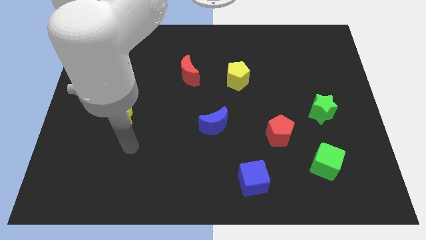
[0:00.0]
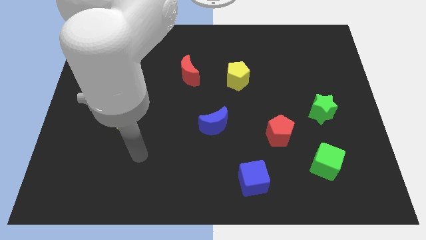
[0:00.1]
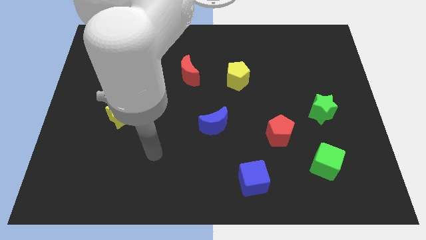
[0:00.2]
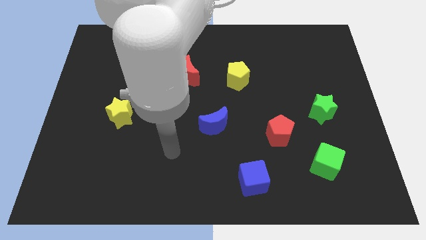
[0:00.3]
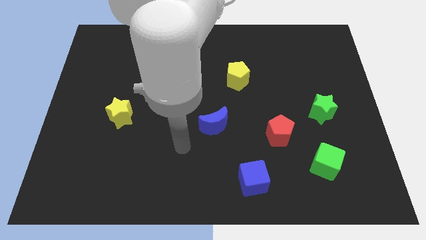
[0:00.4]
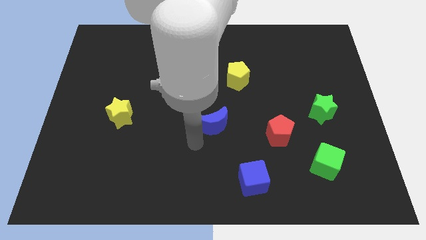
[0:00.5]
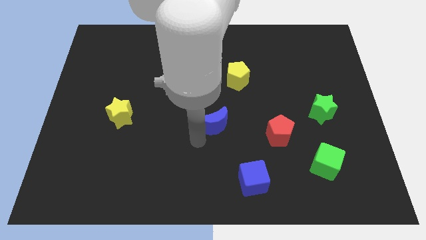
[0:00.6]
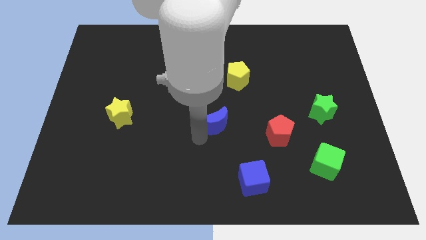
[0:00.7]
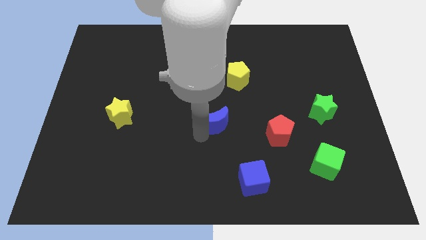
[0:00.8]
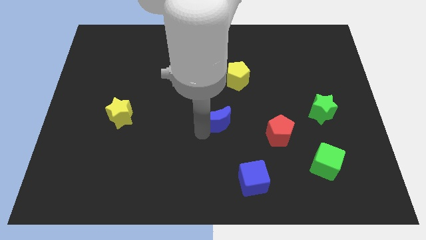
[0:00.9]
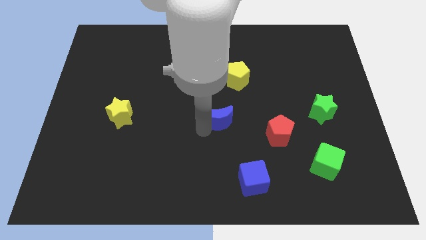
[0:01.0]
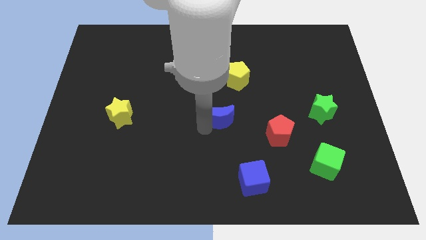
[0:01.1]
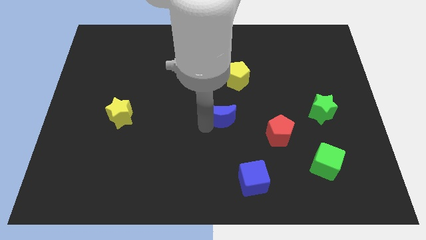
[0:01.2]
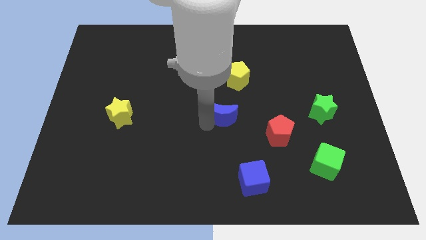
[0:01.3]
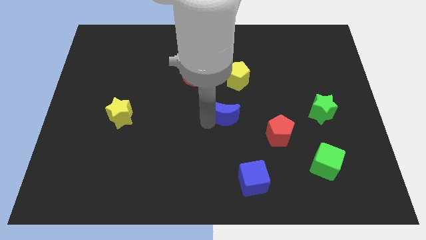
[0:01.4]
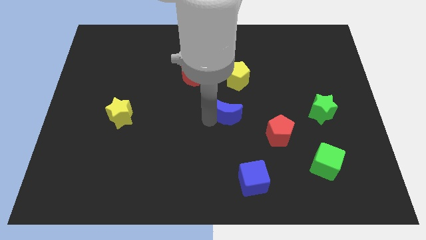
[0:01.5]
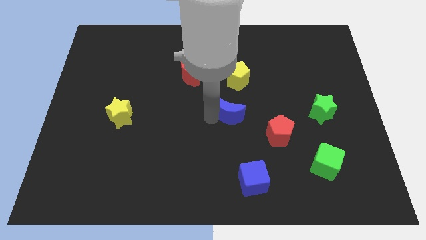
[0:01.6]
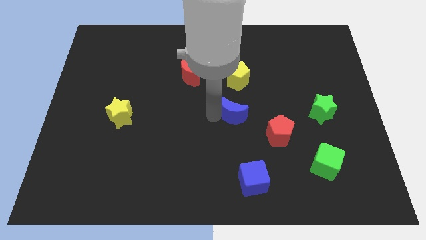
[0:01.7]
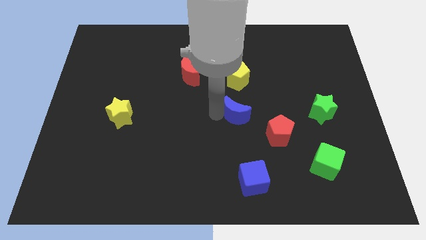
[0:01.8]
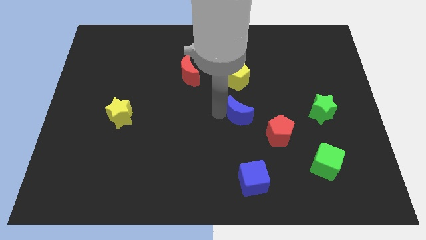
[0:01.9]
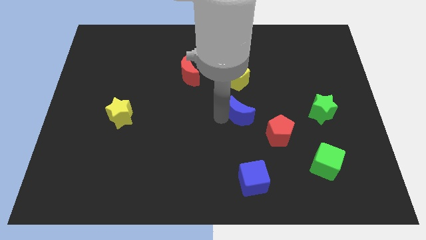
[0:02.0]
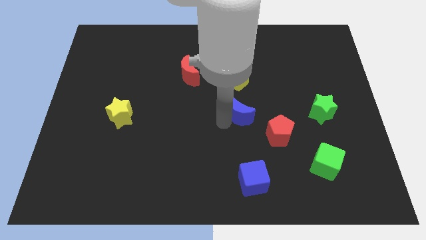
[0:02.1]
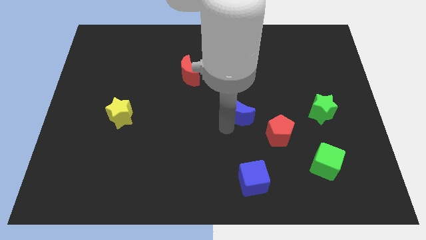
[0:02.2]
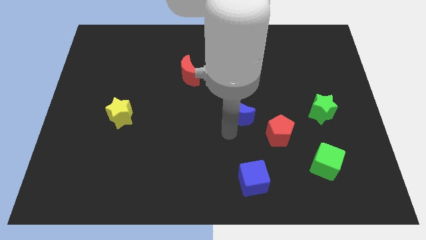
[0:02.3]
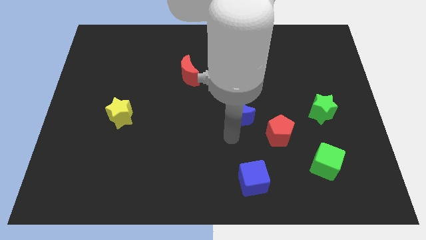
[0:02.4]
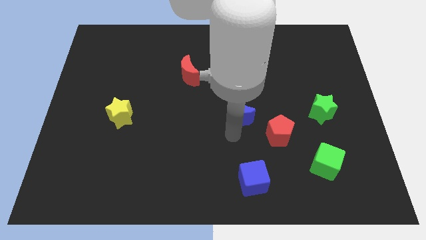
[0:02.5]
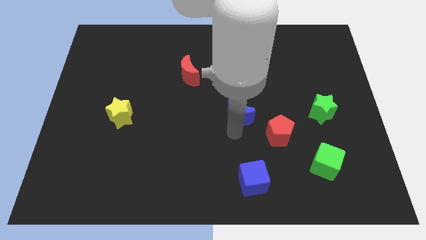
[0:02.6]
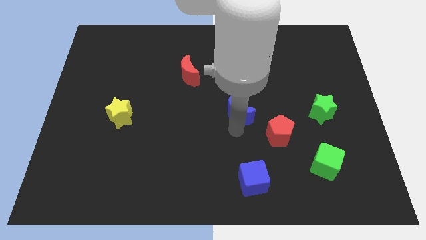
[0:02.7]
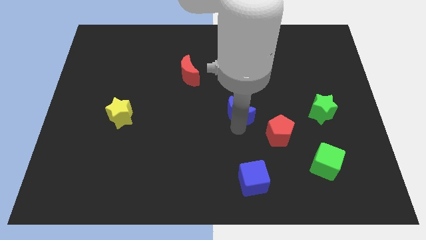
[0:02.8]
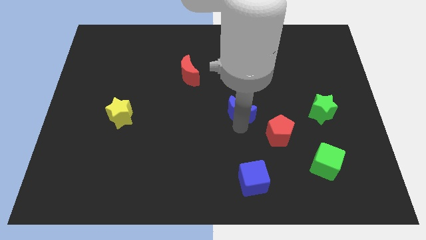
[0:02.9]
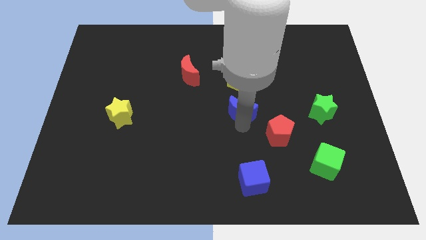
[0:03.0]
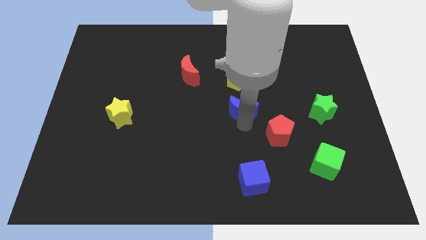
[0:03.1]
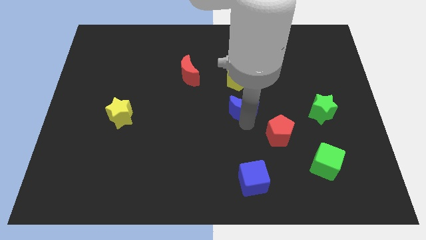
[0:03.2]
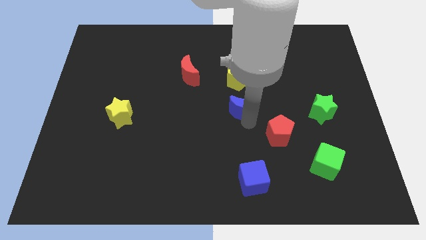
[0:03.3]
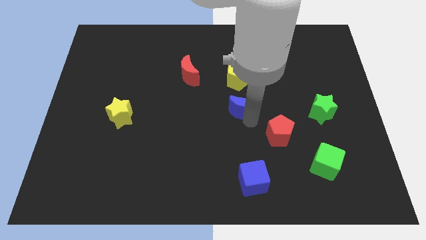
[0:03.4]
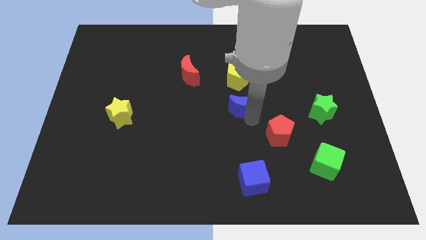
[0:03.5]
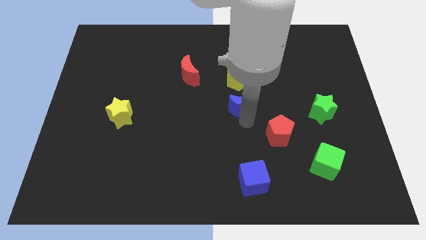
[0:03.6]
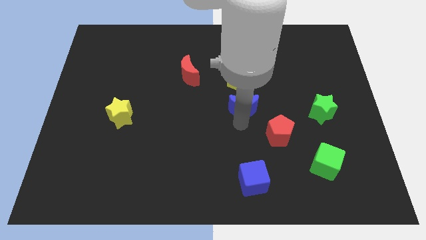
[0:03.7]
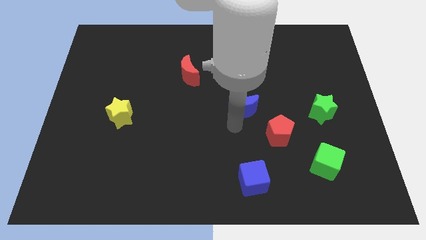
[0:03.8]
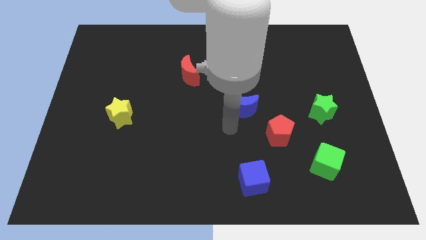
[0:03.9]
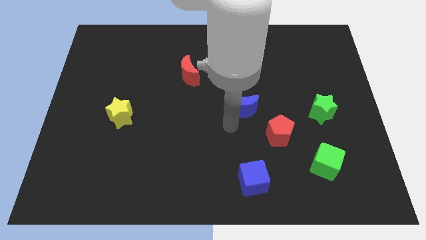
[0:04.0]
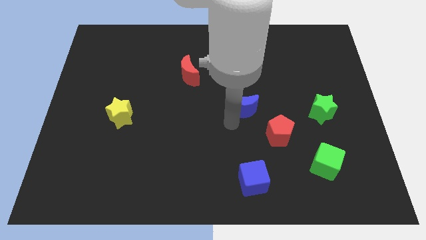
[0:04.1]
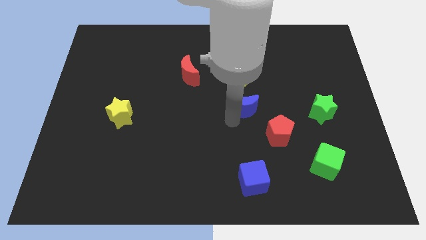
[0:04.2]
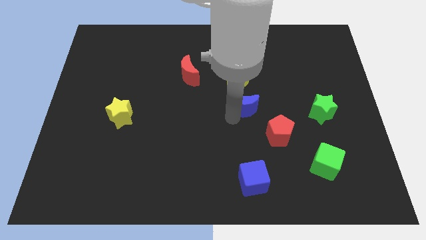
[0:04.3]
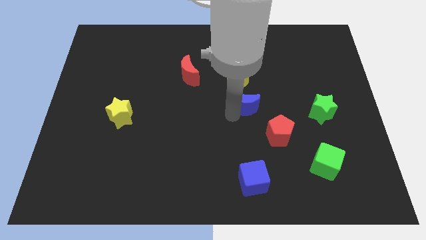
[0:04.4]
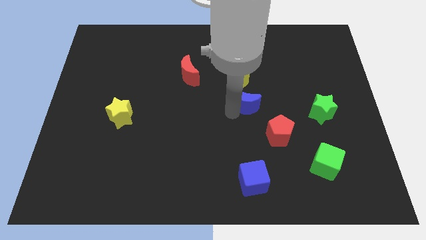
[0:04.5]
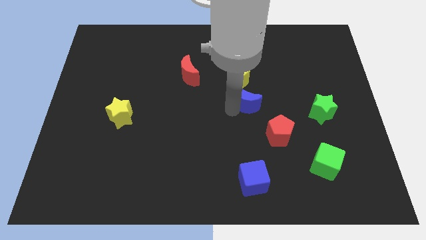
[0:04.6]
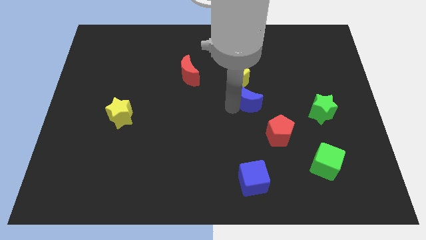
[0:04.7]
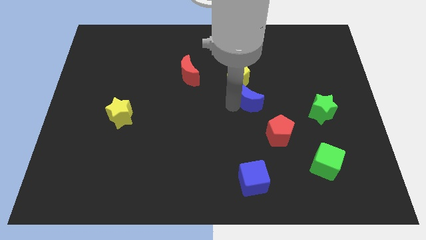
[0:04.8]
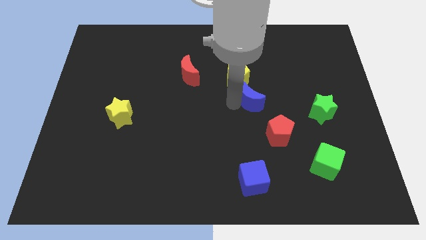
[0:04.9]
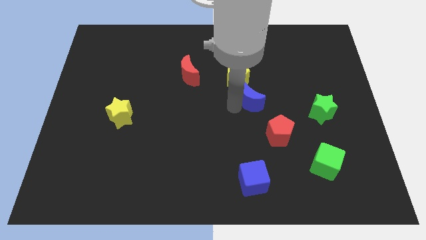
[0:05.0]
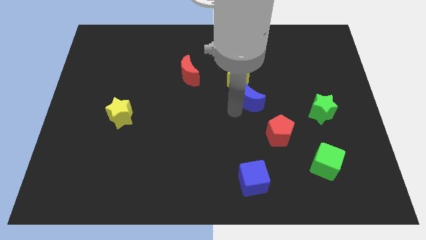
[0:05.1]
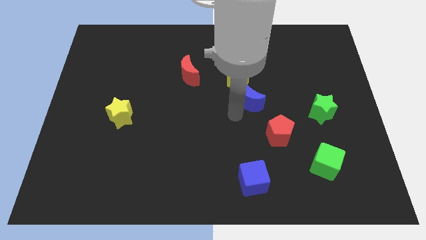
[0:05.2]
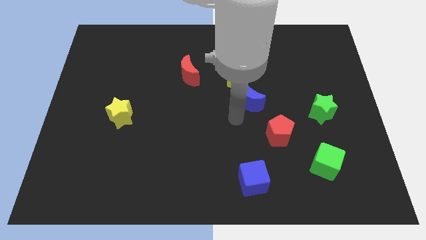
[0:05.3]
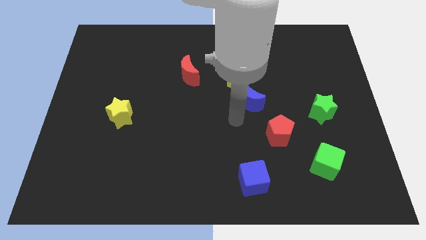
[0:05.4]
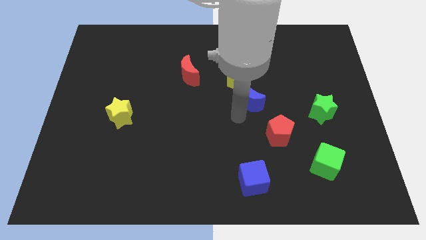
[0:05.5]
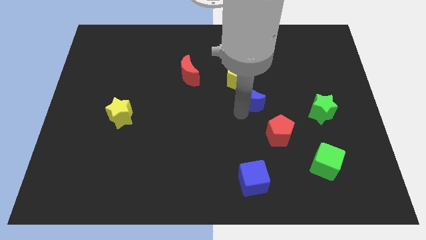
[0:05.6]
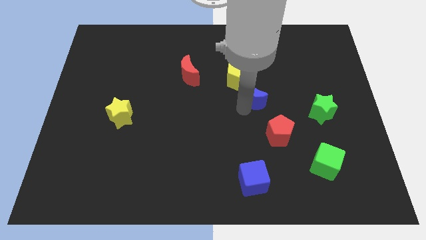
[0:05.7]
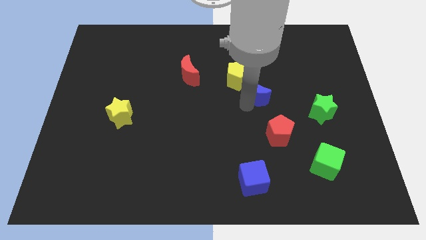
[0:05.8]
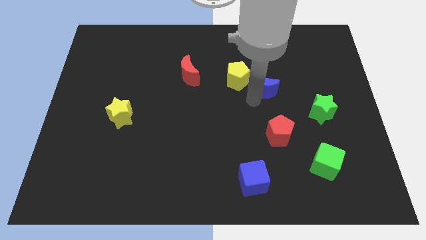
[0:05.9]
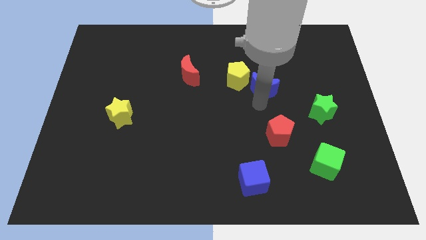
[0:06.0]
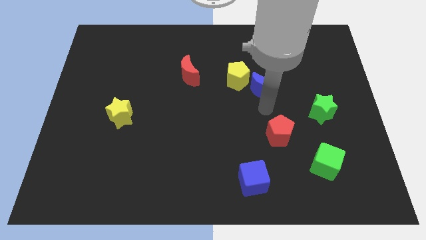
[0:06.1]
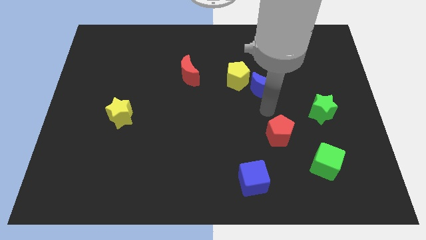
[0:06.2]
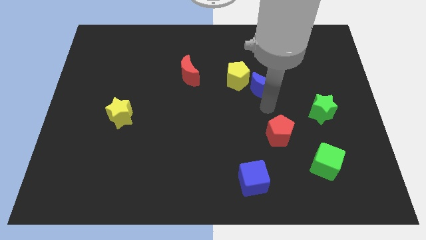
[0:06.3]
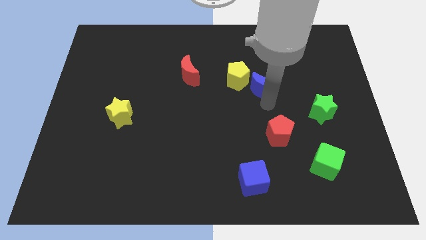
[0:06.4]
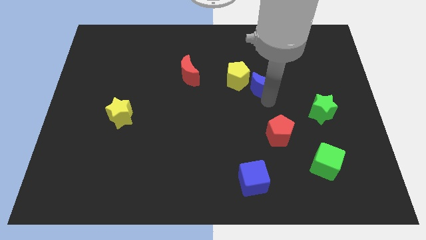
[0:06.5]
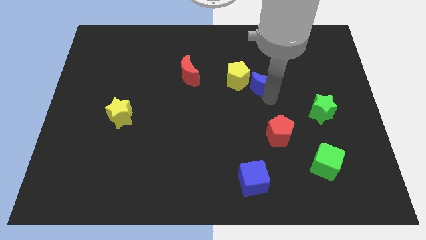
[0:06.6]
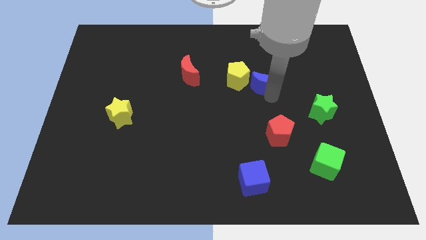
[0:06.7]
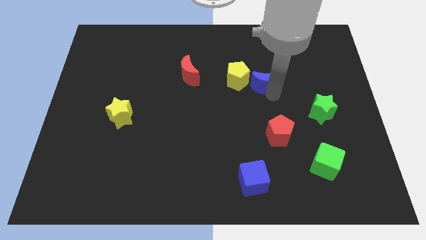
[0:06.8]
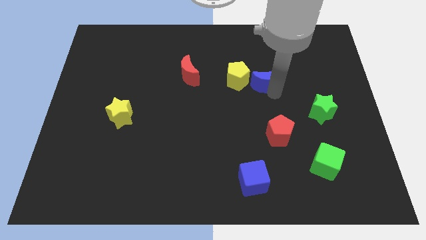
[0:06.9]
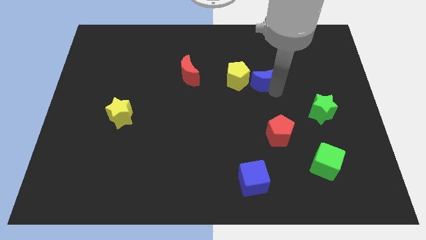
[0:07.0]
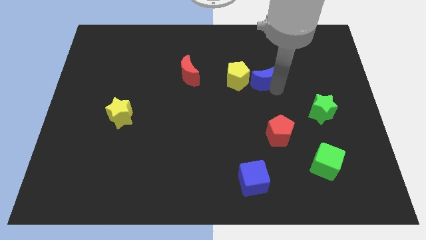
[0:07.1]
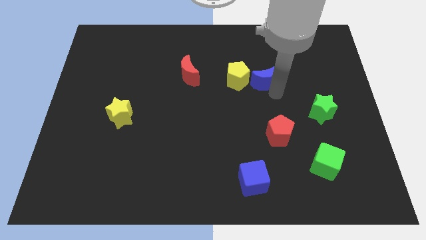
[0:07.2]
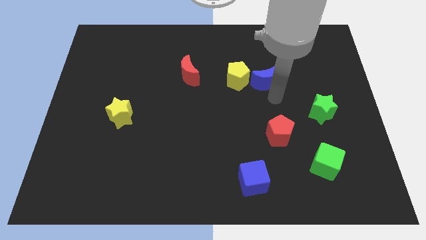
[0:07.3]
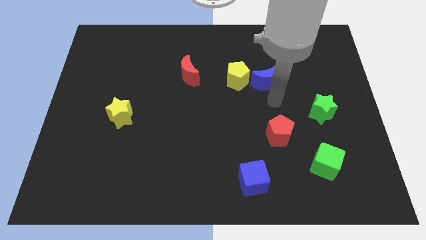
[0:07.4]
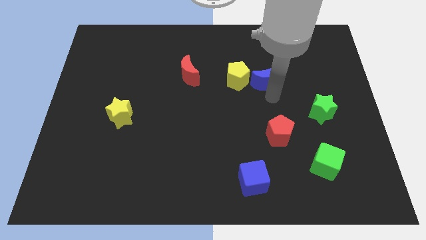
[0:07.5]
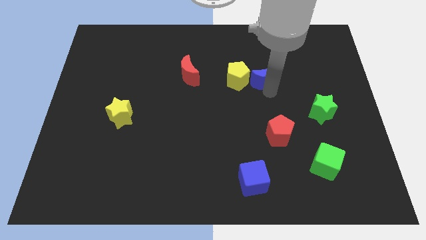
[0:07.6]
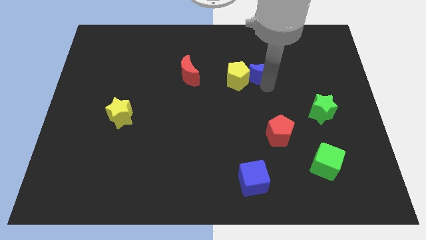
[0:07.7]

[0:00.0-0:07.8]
put the blue moon to the top right side of the yellow pentagon
